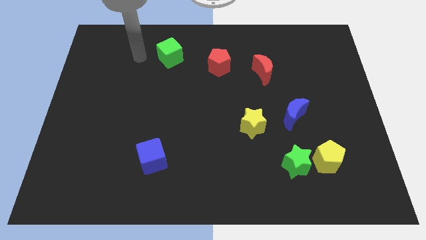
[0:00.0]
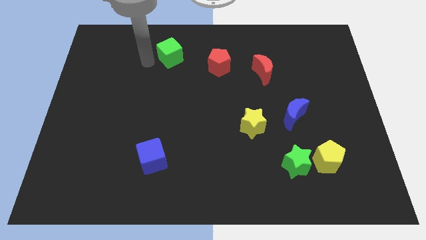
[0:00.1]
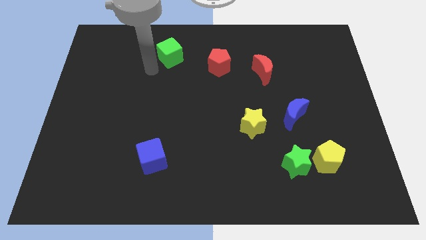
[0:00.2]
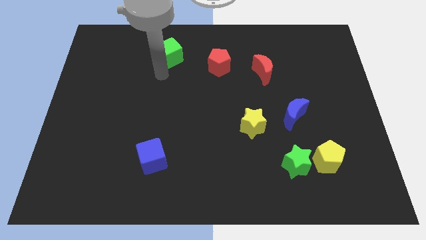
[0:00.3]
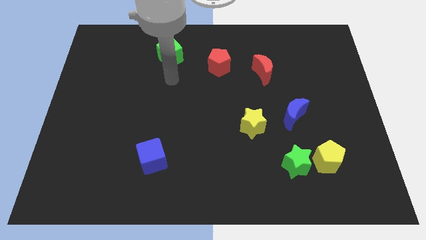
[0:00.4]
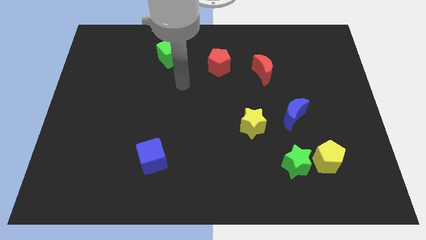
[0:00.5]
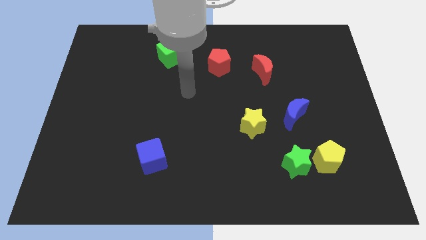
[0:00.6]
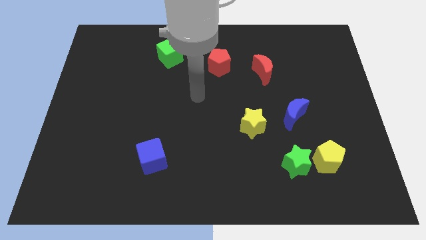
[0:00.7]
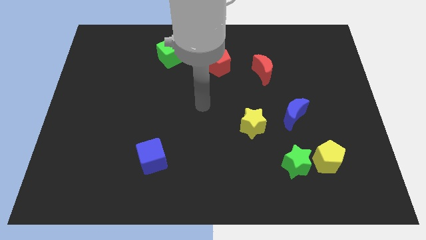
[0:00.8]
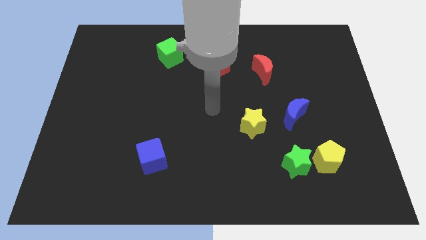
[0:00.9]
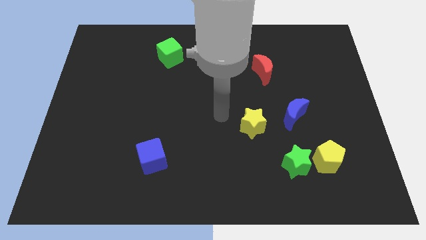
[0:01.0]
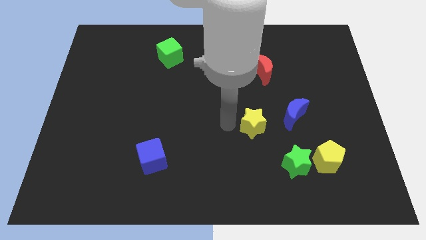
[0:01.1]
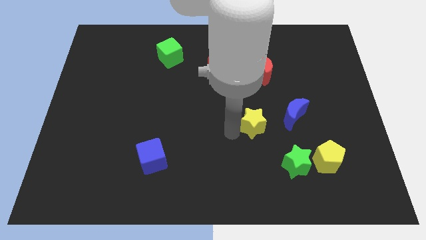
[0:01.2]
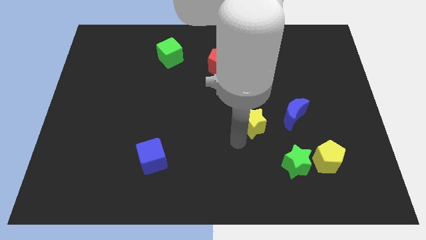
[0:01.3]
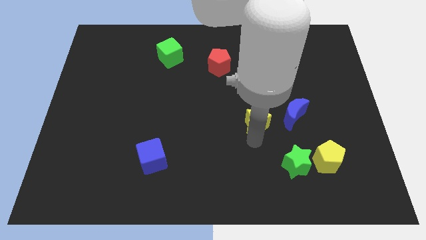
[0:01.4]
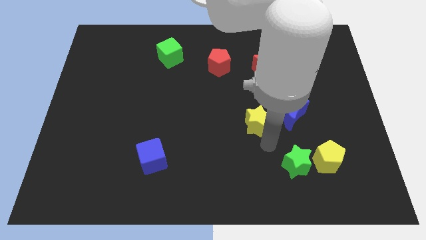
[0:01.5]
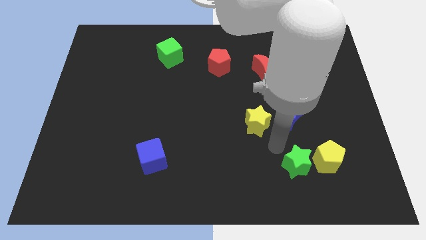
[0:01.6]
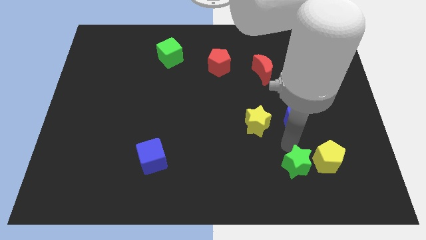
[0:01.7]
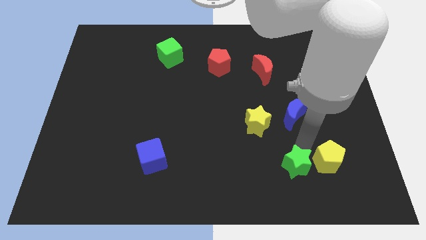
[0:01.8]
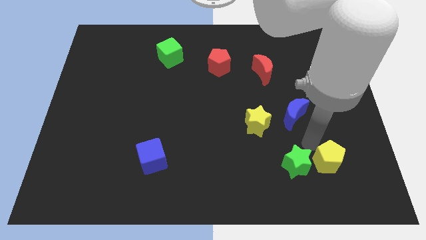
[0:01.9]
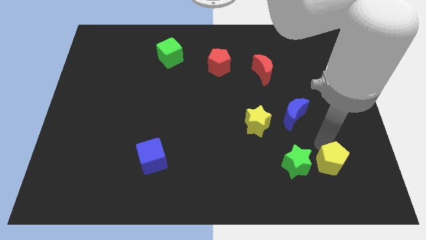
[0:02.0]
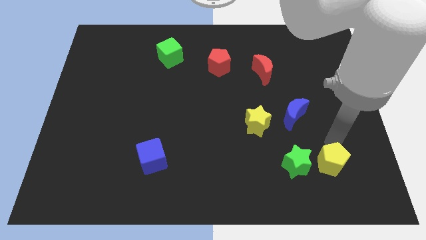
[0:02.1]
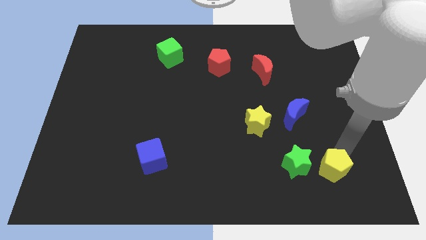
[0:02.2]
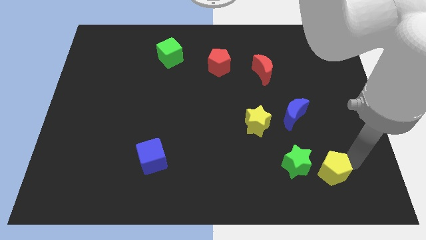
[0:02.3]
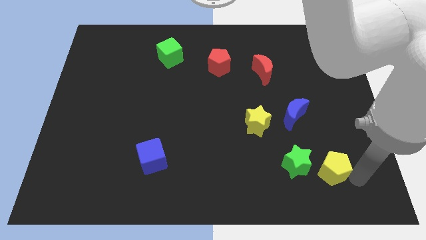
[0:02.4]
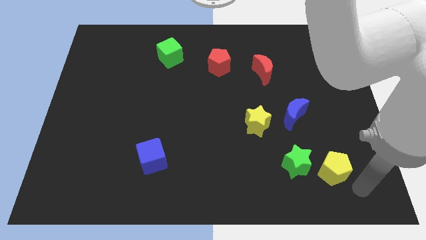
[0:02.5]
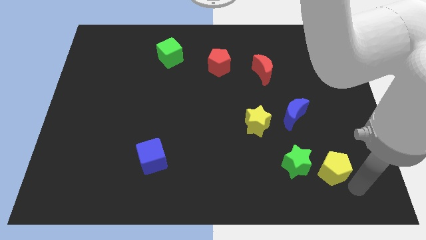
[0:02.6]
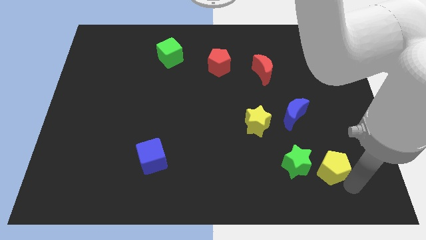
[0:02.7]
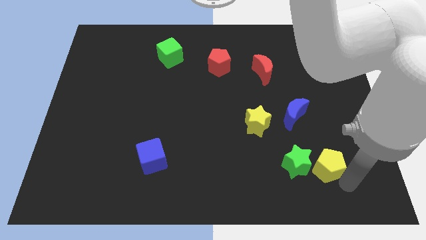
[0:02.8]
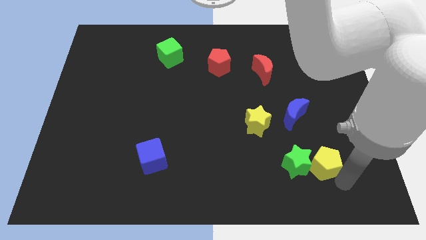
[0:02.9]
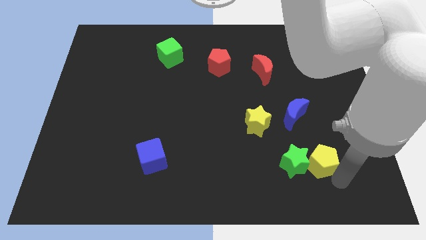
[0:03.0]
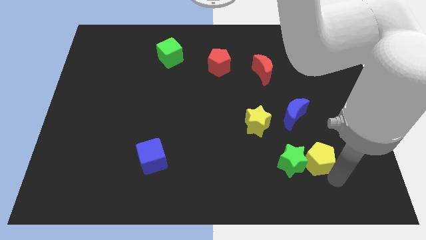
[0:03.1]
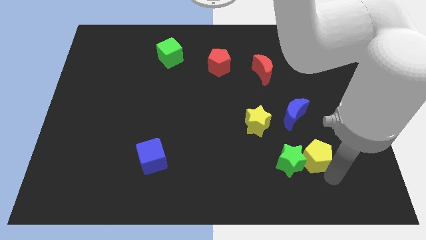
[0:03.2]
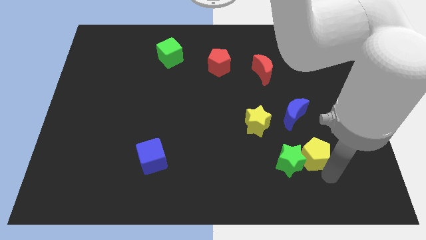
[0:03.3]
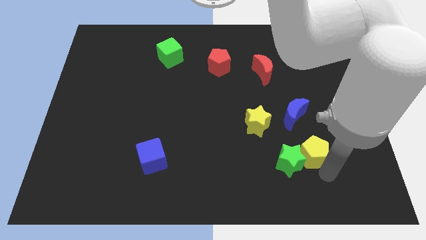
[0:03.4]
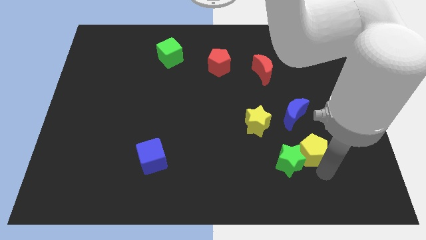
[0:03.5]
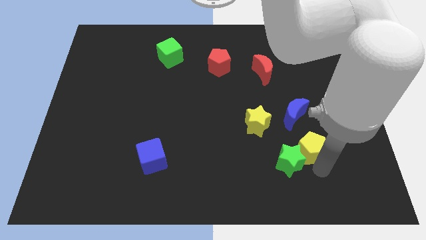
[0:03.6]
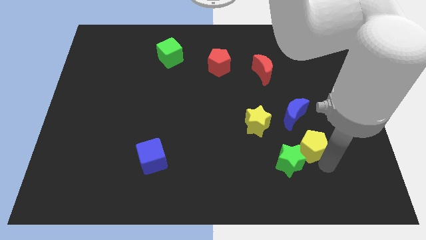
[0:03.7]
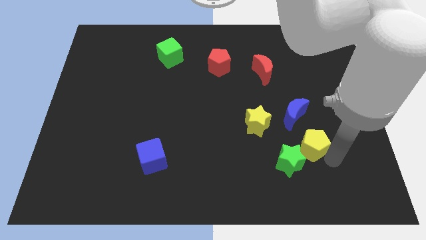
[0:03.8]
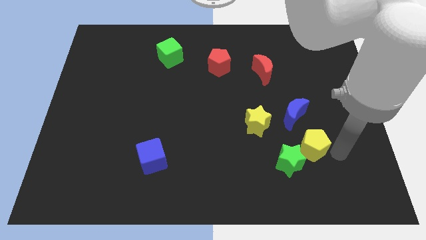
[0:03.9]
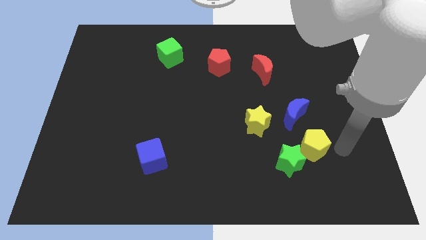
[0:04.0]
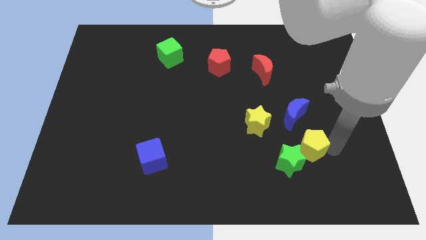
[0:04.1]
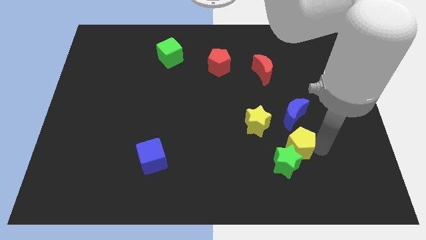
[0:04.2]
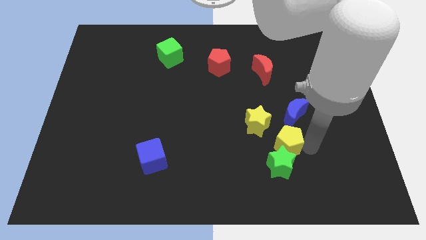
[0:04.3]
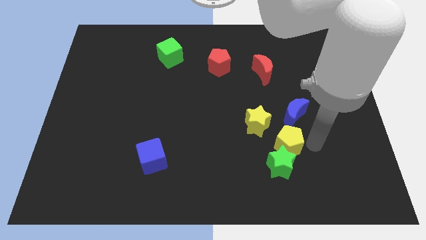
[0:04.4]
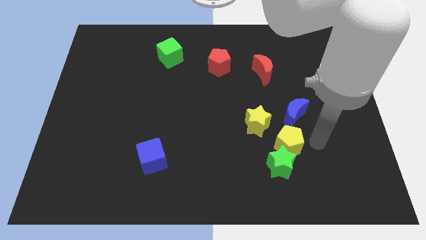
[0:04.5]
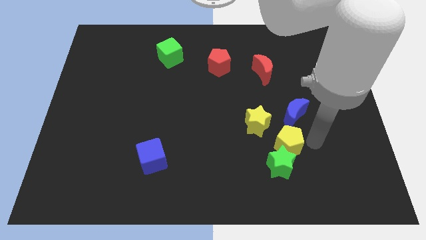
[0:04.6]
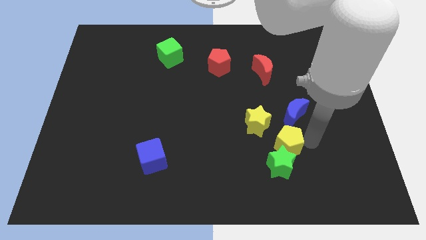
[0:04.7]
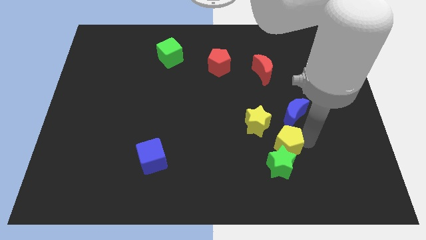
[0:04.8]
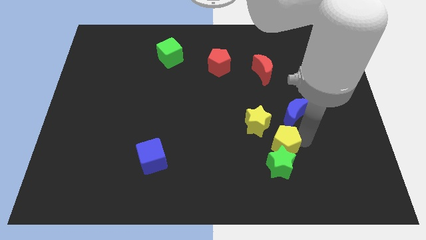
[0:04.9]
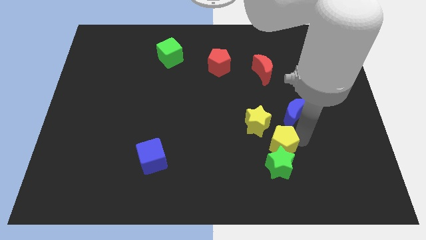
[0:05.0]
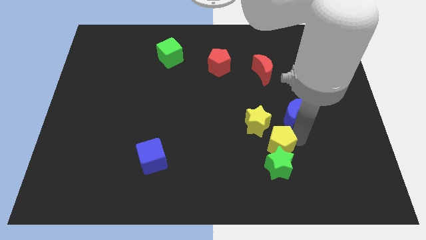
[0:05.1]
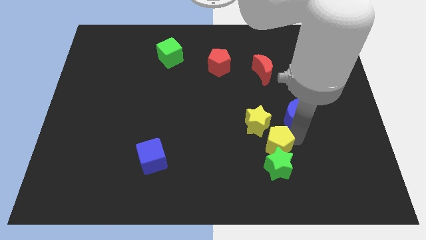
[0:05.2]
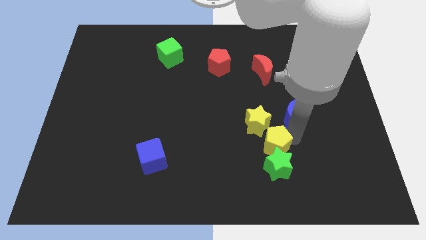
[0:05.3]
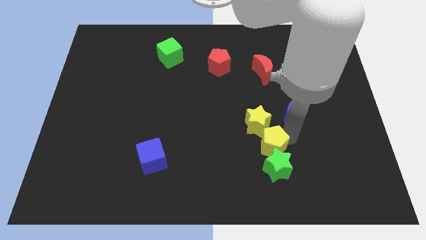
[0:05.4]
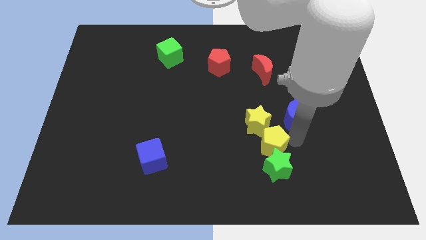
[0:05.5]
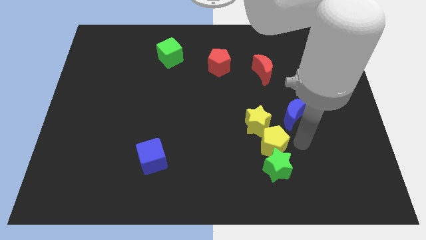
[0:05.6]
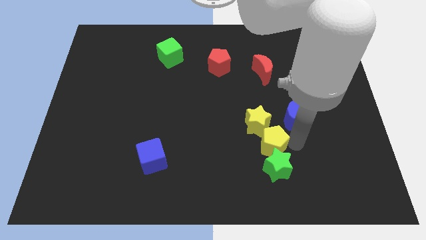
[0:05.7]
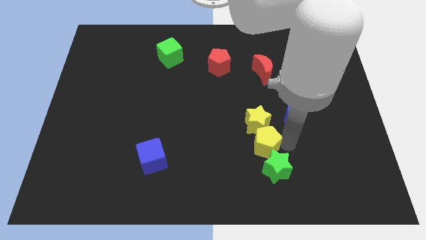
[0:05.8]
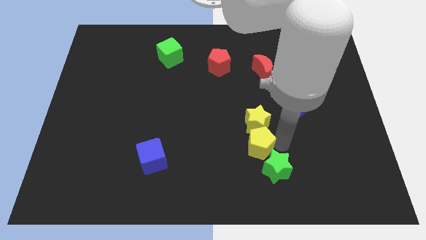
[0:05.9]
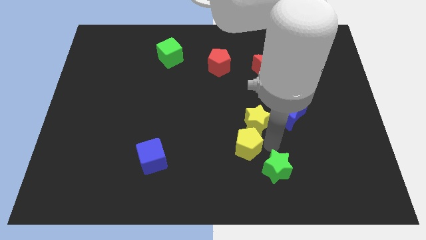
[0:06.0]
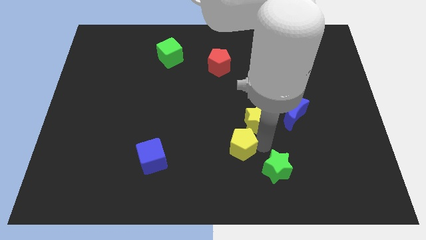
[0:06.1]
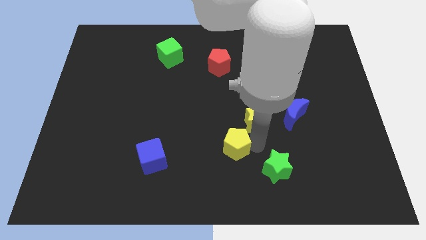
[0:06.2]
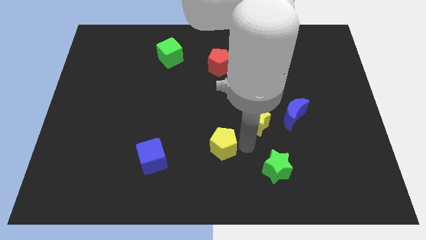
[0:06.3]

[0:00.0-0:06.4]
push the yellow pentagon left

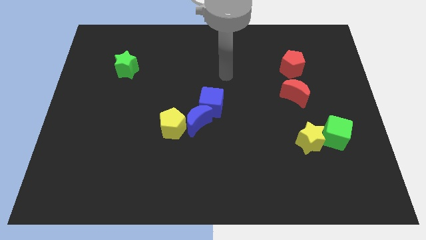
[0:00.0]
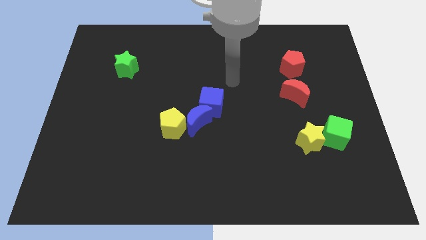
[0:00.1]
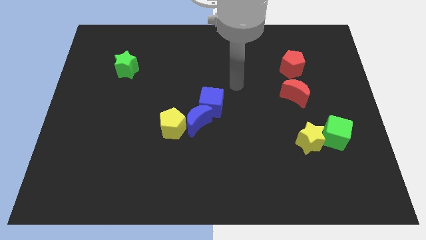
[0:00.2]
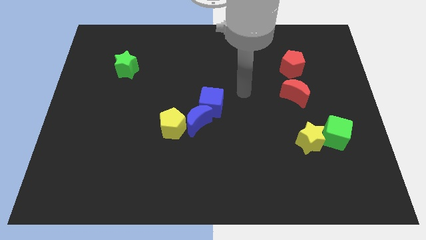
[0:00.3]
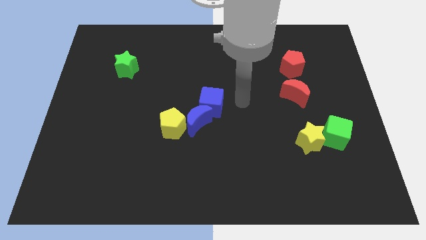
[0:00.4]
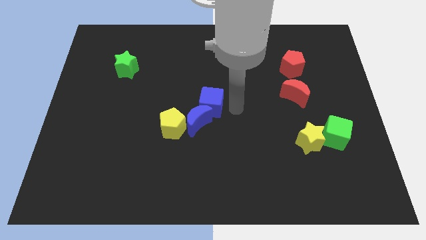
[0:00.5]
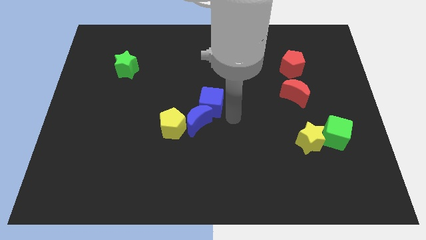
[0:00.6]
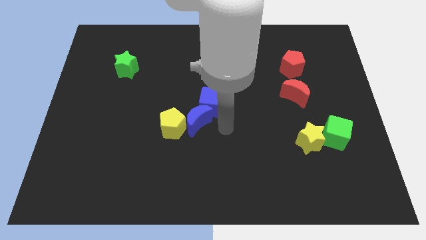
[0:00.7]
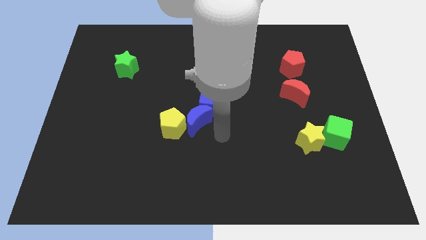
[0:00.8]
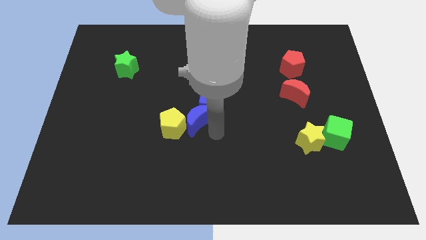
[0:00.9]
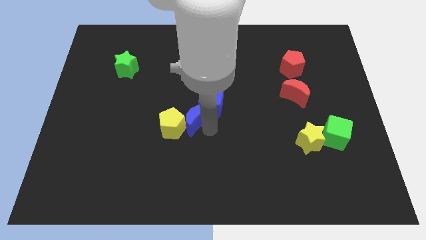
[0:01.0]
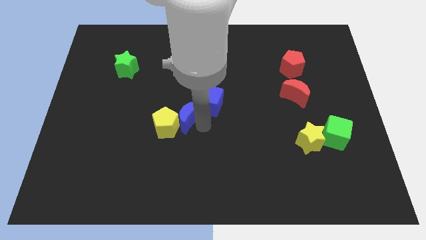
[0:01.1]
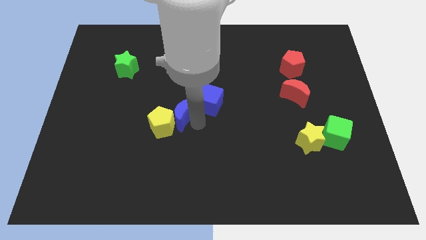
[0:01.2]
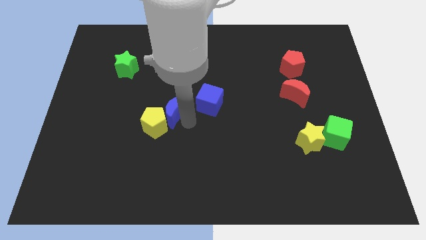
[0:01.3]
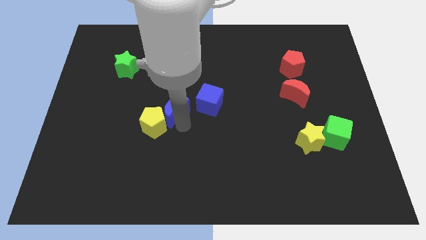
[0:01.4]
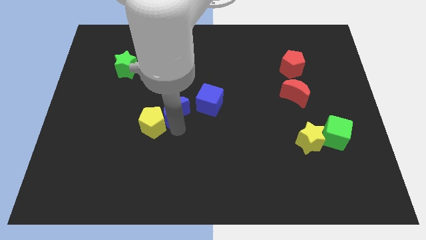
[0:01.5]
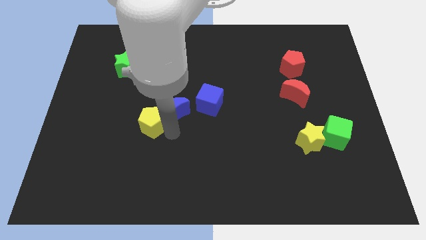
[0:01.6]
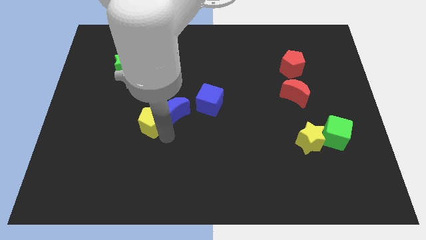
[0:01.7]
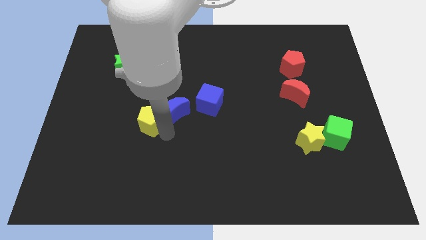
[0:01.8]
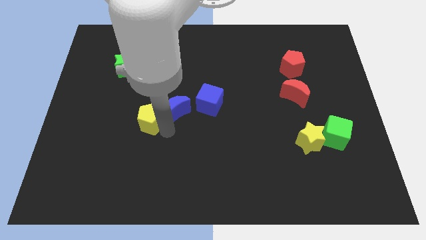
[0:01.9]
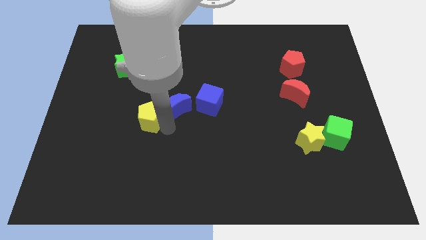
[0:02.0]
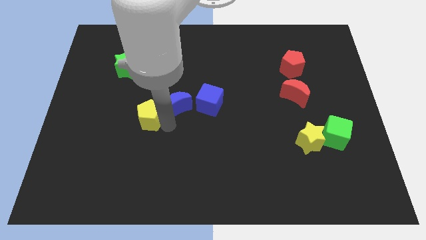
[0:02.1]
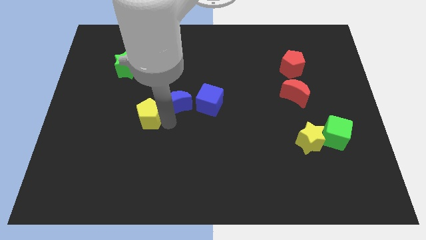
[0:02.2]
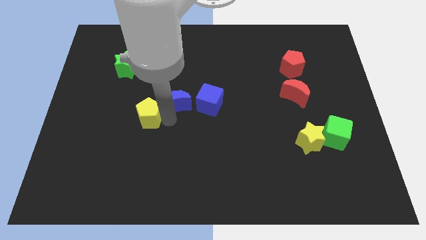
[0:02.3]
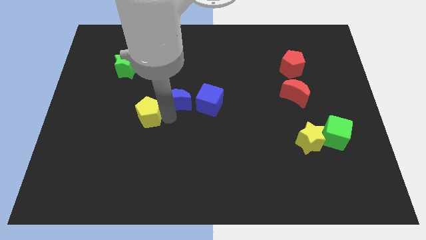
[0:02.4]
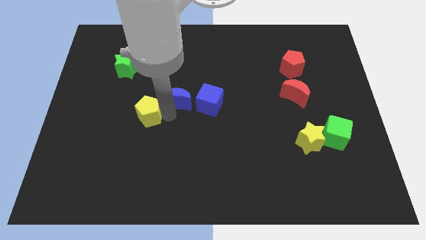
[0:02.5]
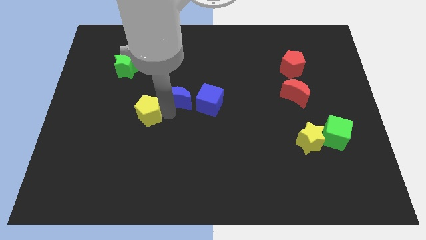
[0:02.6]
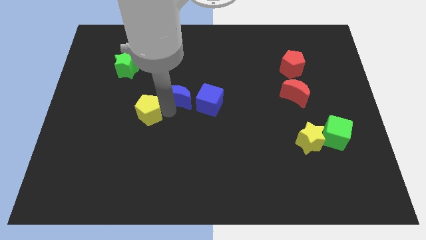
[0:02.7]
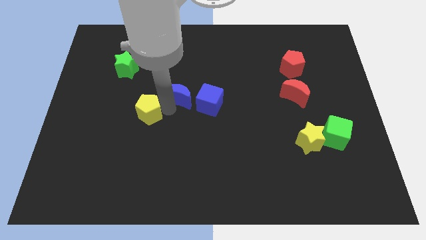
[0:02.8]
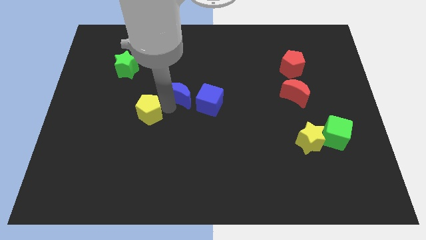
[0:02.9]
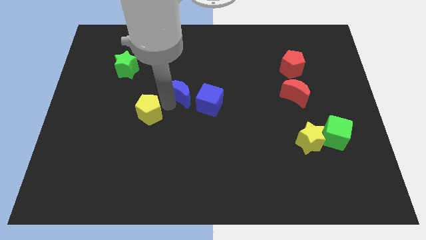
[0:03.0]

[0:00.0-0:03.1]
slightly move the blue moon upwards
